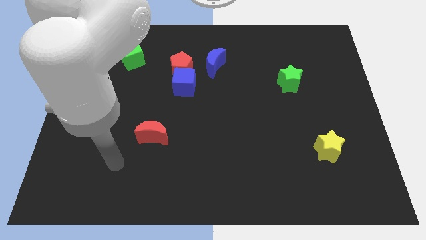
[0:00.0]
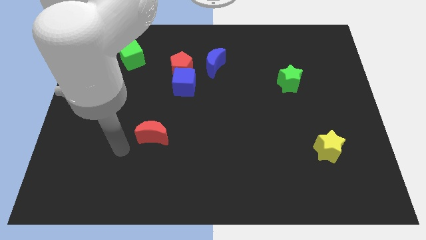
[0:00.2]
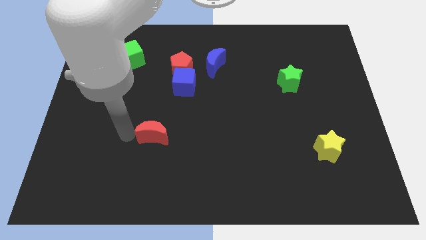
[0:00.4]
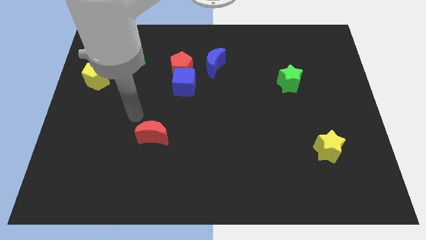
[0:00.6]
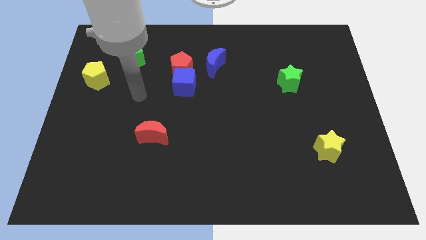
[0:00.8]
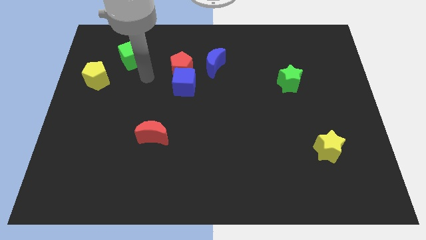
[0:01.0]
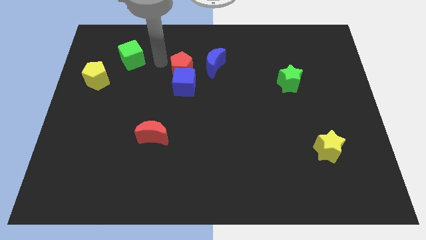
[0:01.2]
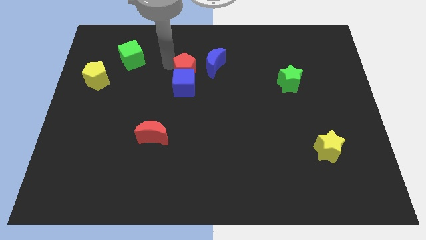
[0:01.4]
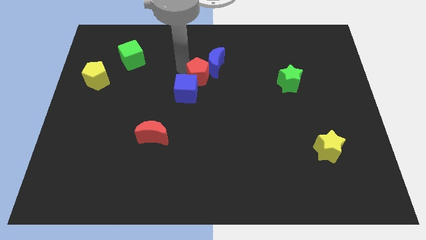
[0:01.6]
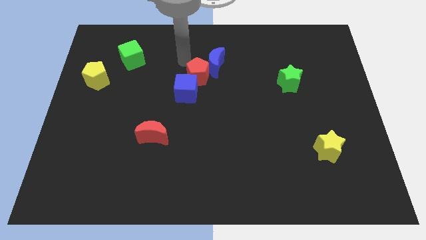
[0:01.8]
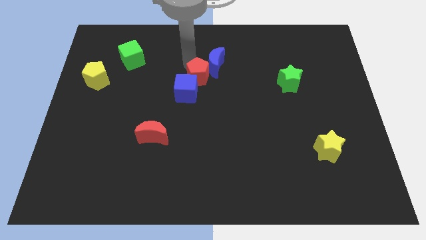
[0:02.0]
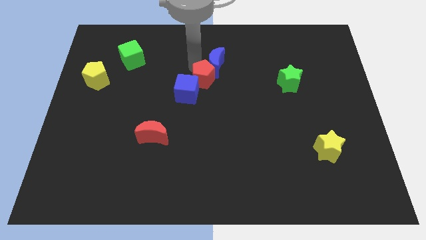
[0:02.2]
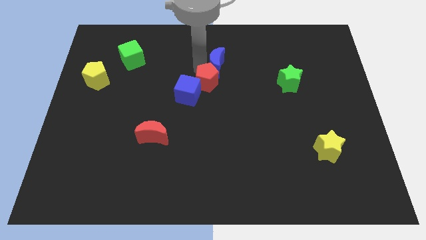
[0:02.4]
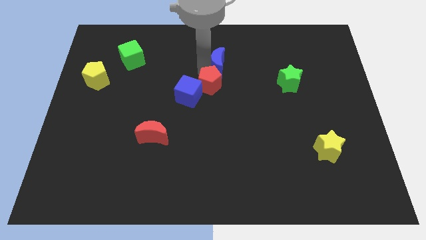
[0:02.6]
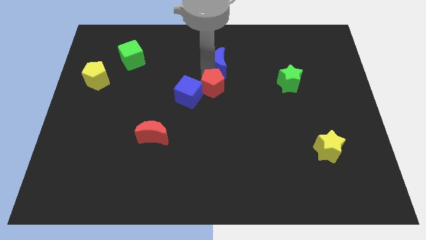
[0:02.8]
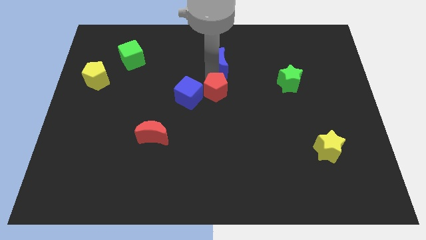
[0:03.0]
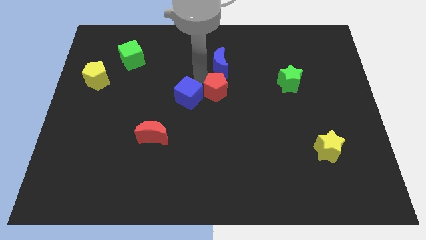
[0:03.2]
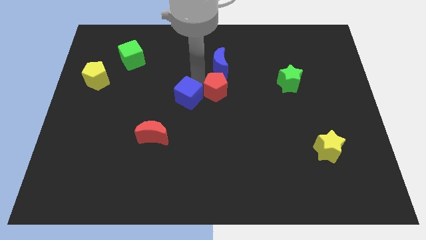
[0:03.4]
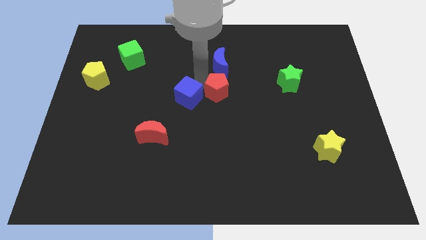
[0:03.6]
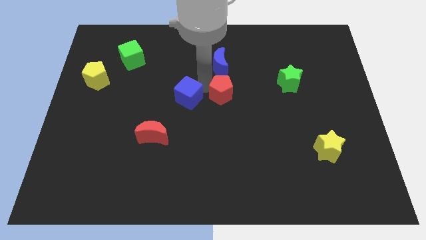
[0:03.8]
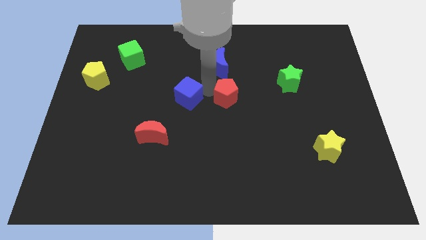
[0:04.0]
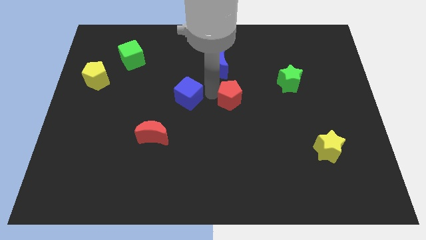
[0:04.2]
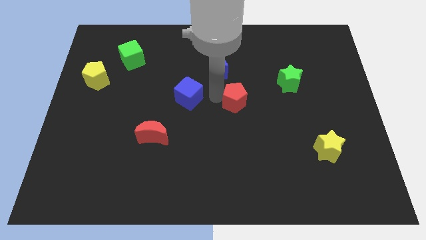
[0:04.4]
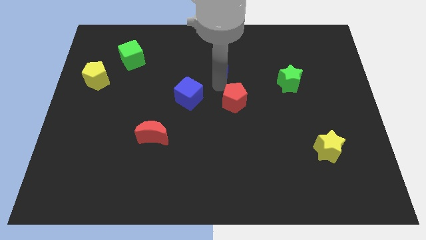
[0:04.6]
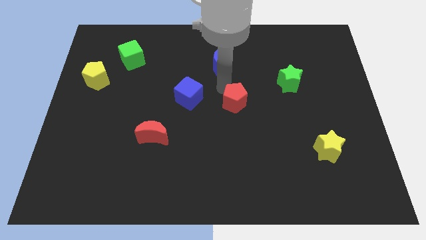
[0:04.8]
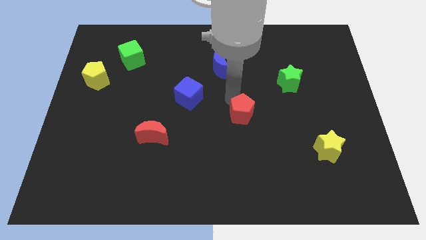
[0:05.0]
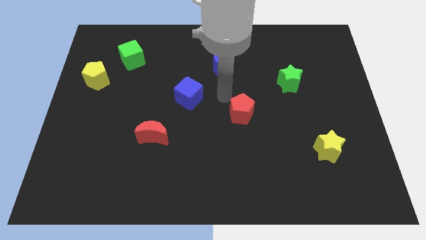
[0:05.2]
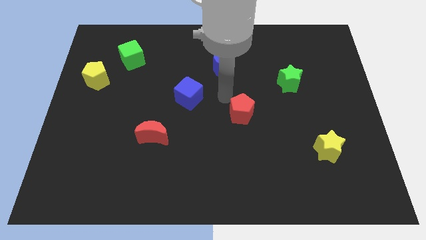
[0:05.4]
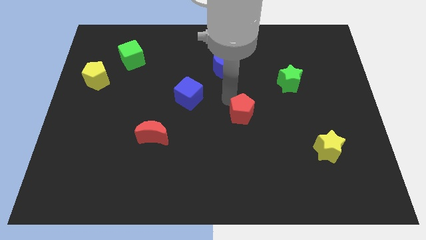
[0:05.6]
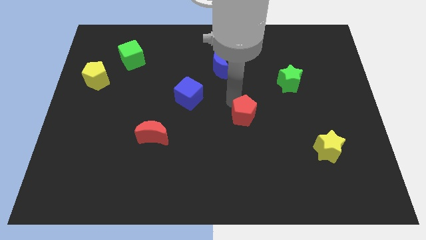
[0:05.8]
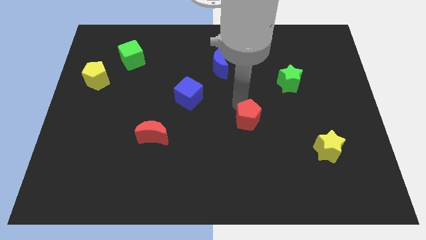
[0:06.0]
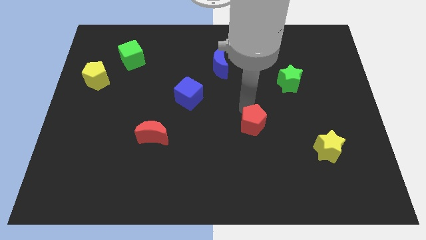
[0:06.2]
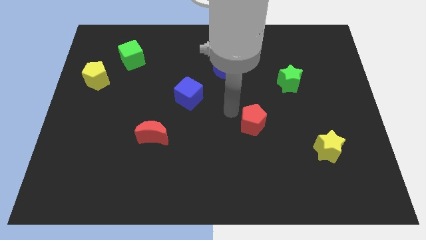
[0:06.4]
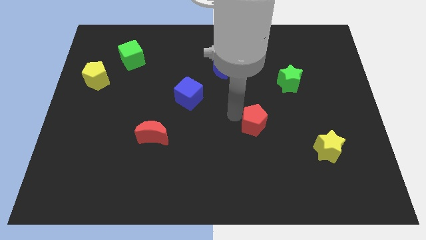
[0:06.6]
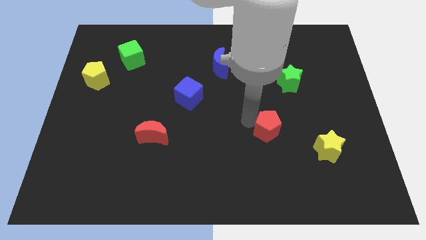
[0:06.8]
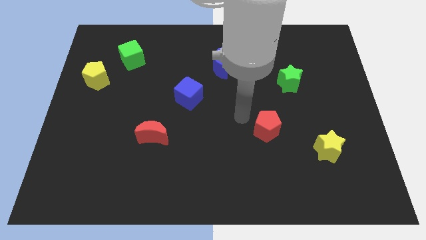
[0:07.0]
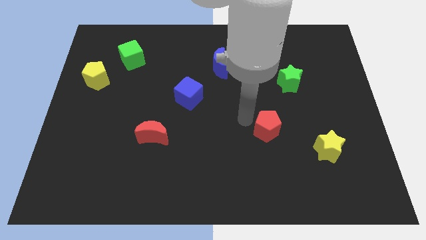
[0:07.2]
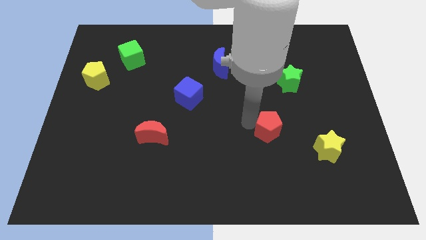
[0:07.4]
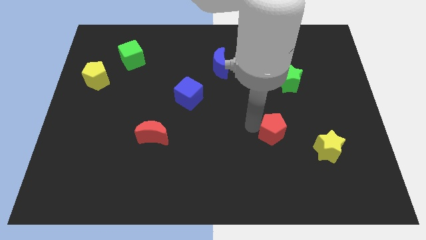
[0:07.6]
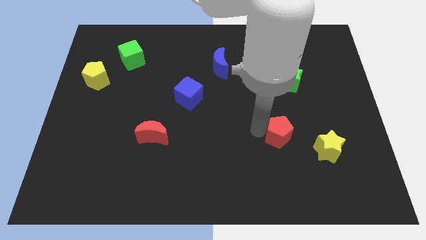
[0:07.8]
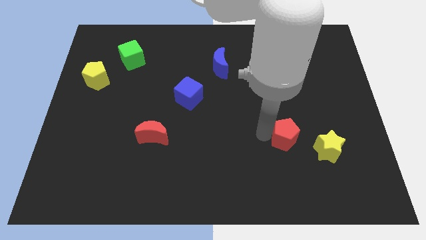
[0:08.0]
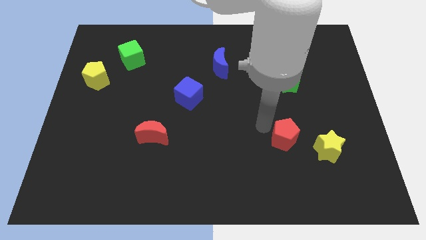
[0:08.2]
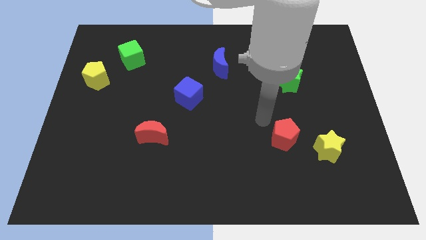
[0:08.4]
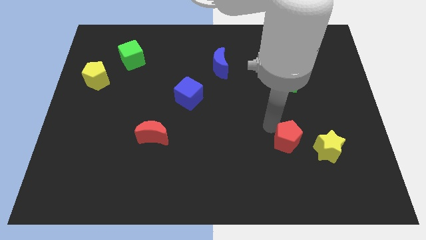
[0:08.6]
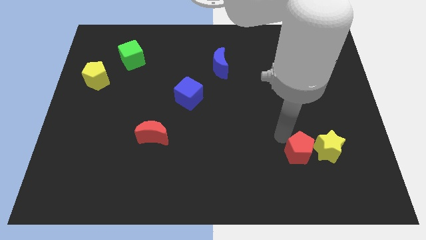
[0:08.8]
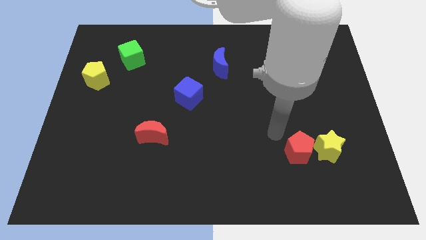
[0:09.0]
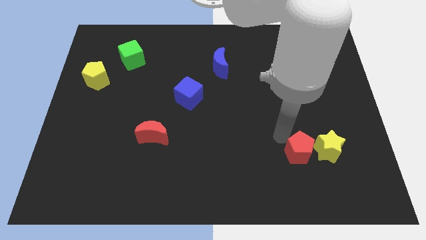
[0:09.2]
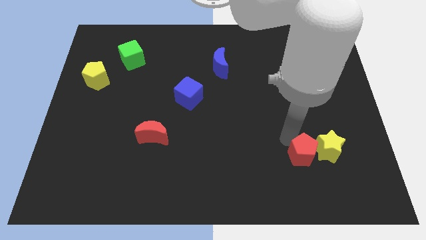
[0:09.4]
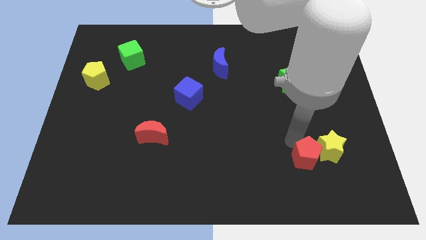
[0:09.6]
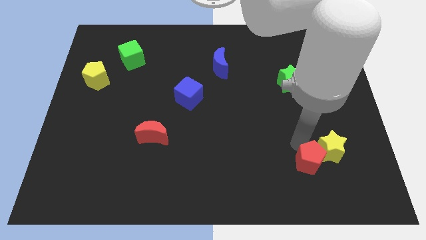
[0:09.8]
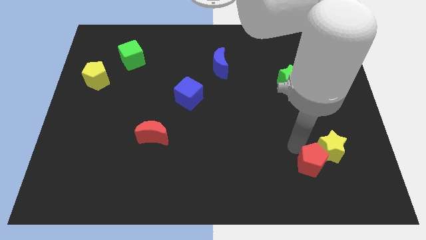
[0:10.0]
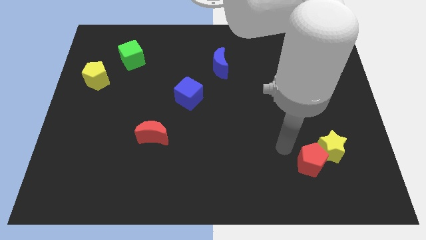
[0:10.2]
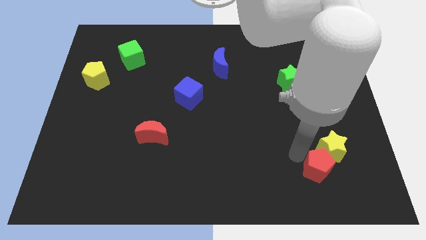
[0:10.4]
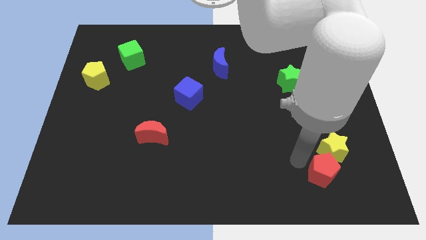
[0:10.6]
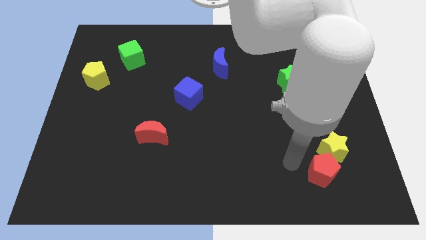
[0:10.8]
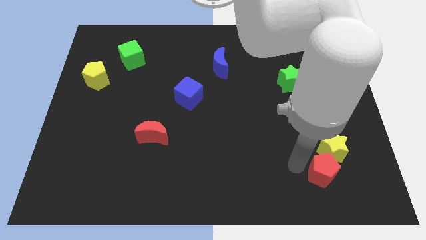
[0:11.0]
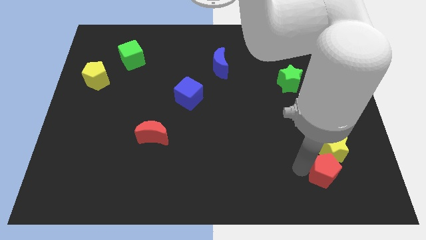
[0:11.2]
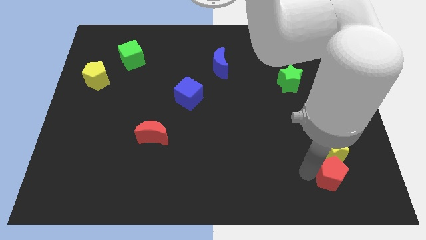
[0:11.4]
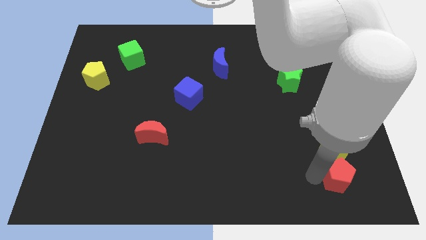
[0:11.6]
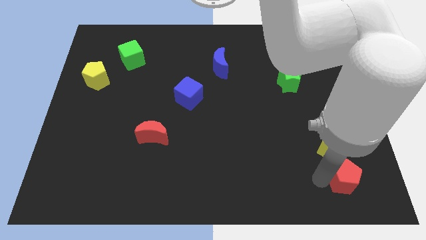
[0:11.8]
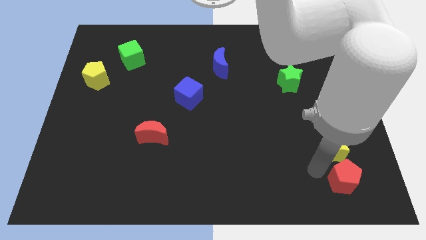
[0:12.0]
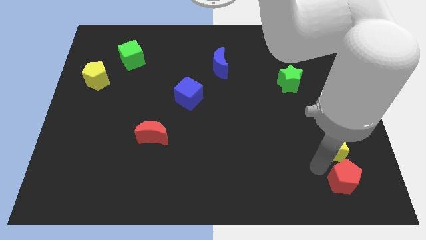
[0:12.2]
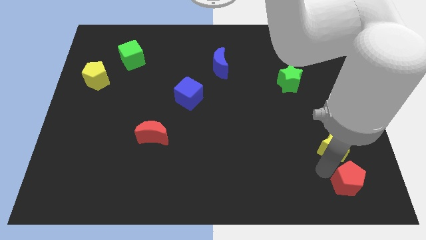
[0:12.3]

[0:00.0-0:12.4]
slide the red pentagon to the bottom right corner
